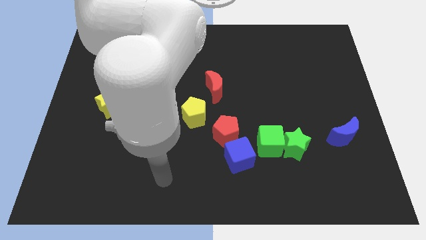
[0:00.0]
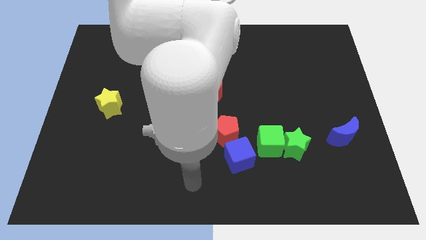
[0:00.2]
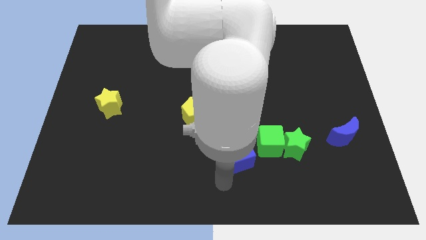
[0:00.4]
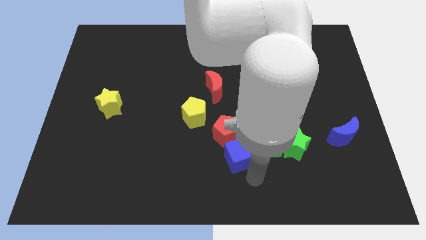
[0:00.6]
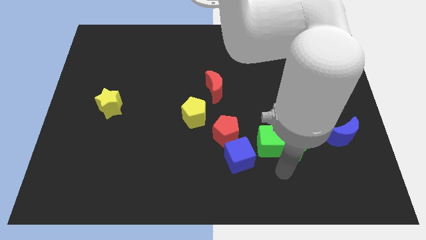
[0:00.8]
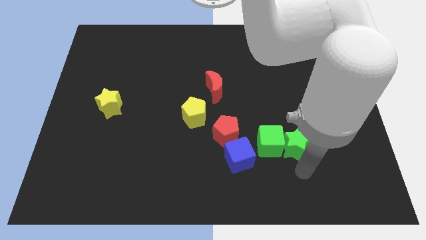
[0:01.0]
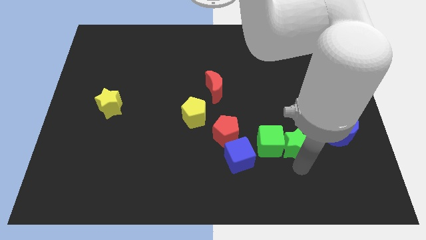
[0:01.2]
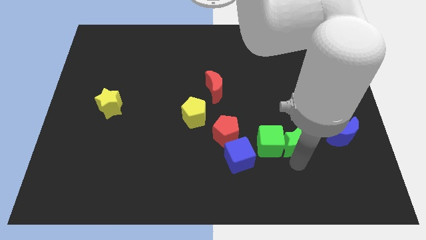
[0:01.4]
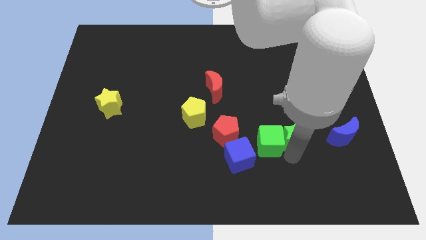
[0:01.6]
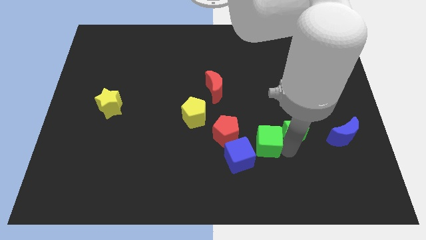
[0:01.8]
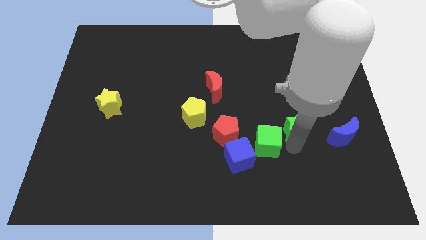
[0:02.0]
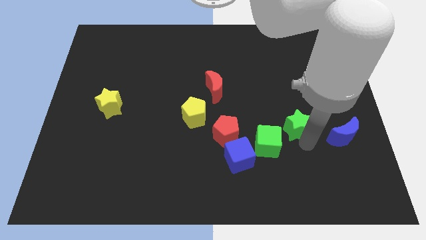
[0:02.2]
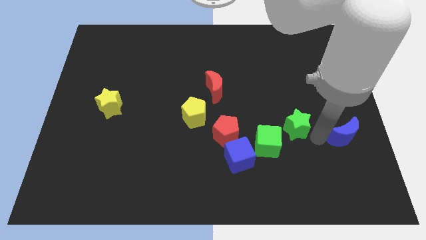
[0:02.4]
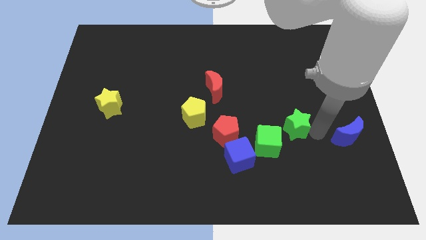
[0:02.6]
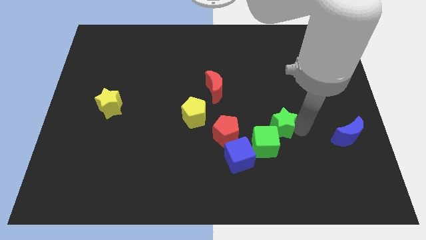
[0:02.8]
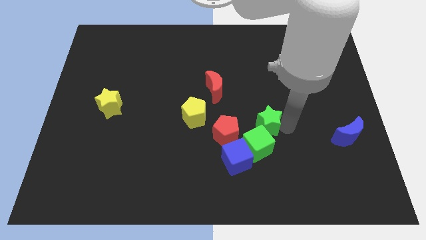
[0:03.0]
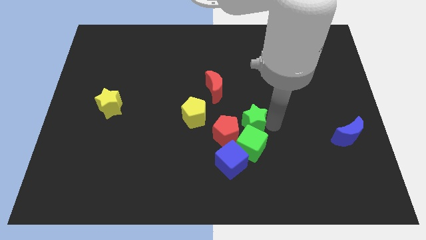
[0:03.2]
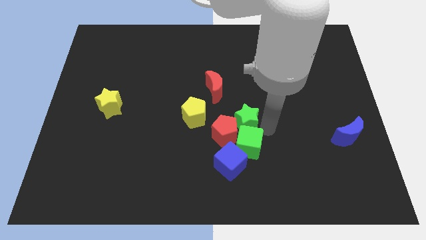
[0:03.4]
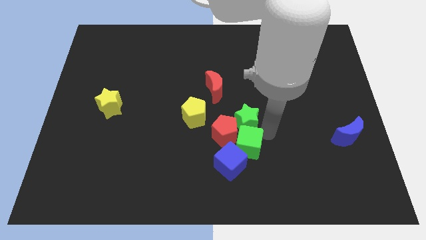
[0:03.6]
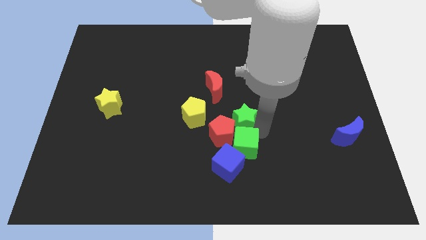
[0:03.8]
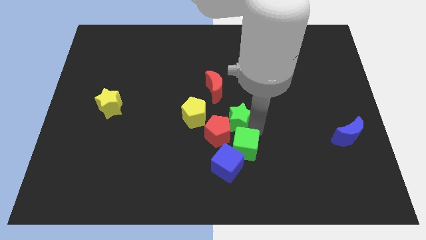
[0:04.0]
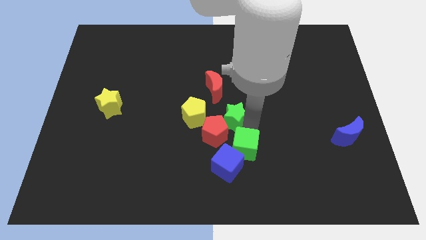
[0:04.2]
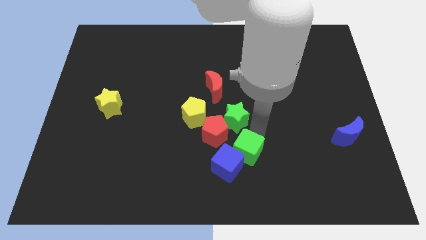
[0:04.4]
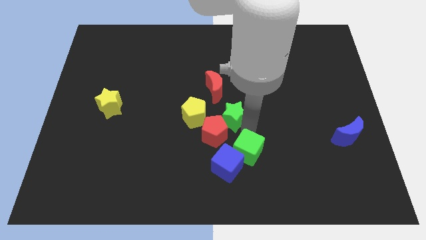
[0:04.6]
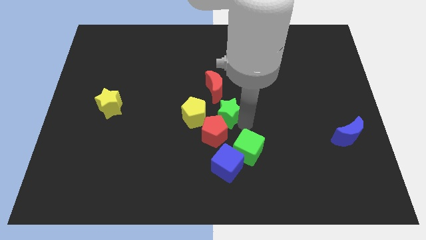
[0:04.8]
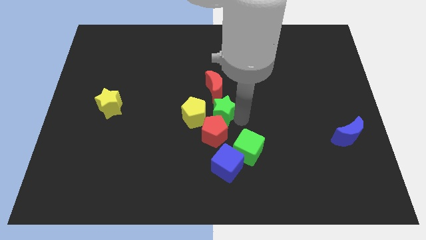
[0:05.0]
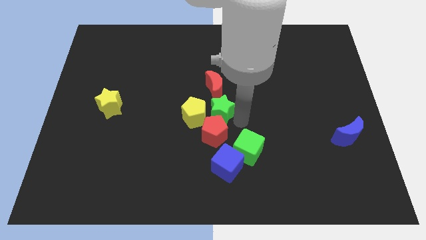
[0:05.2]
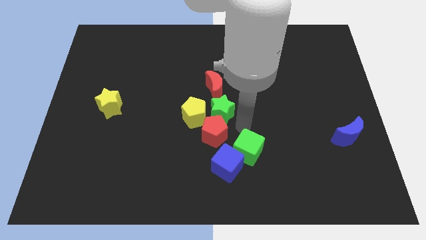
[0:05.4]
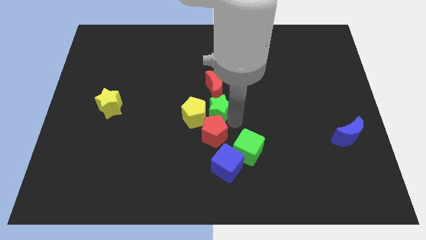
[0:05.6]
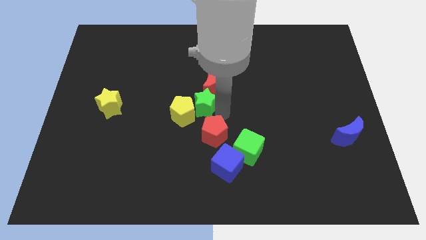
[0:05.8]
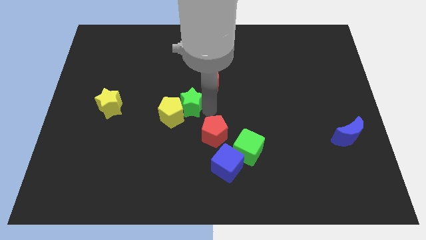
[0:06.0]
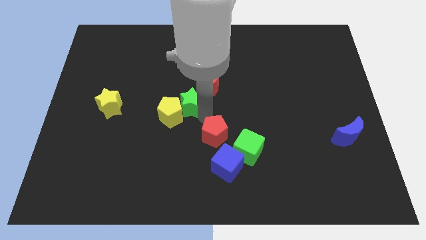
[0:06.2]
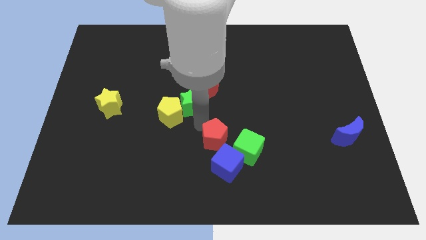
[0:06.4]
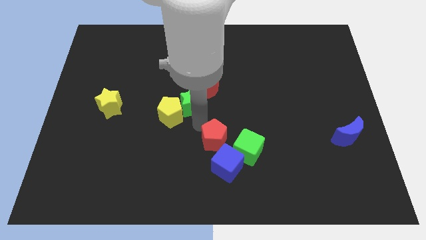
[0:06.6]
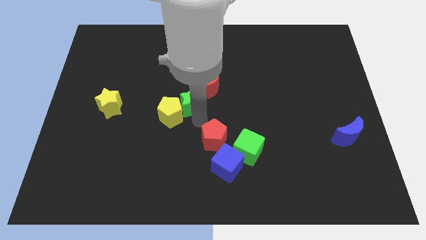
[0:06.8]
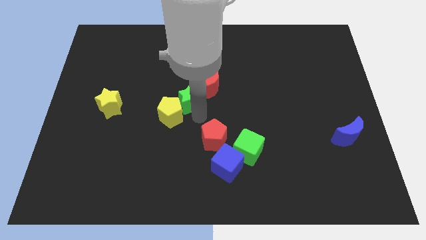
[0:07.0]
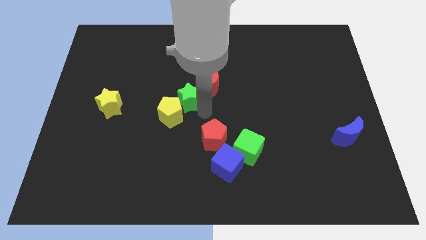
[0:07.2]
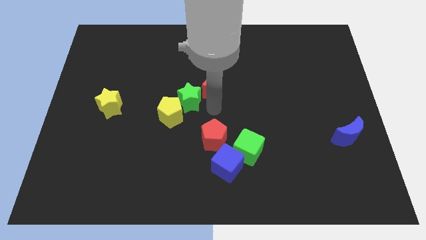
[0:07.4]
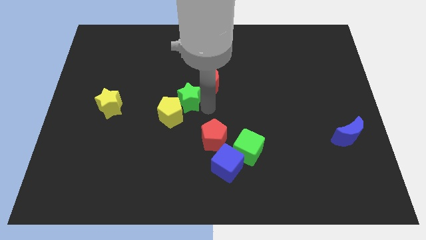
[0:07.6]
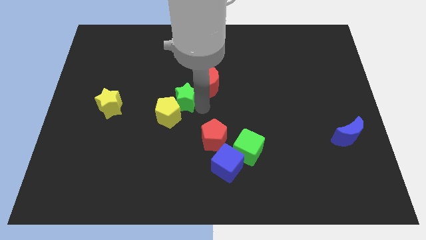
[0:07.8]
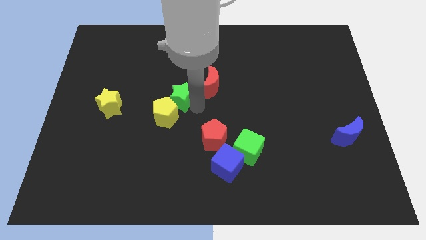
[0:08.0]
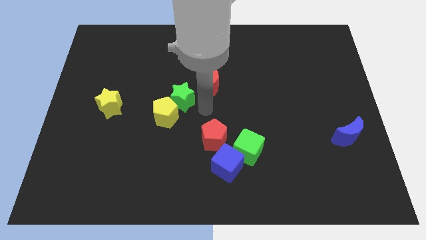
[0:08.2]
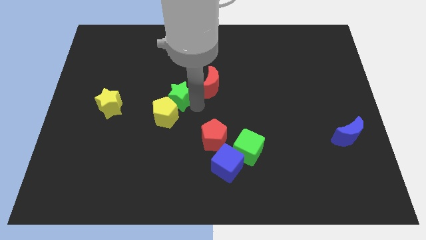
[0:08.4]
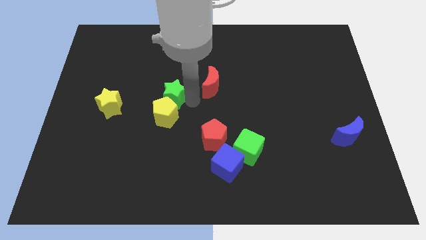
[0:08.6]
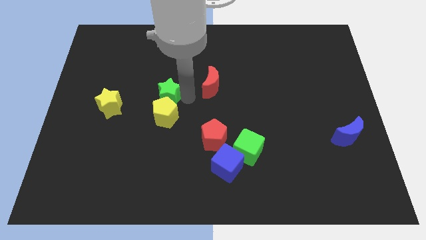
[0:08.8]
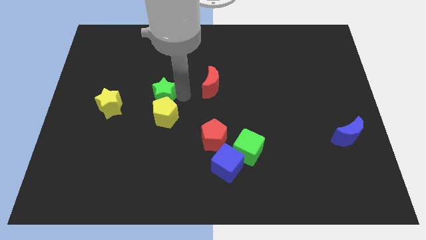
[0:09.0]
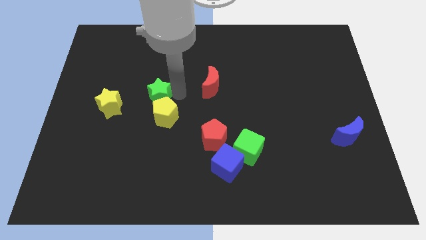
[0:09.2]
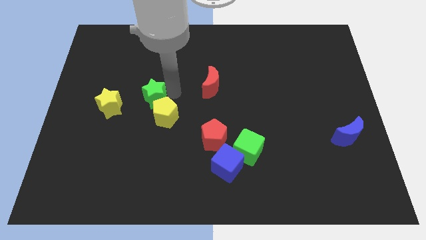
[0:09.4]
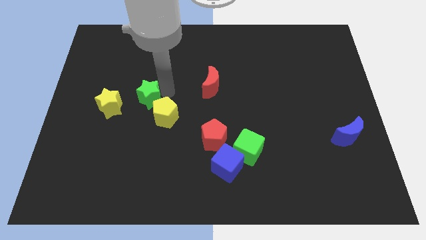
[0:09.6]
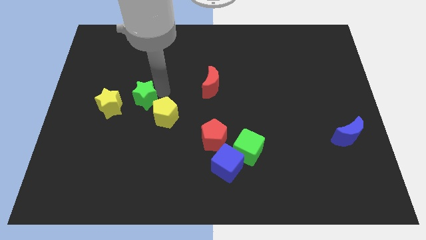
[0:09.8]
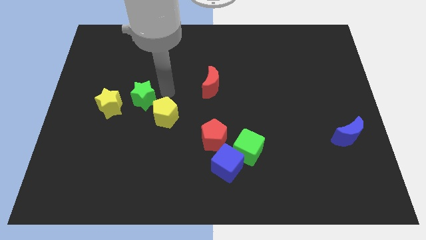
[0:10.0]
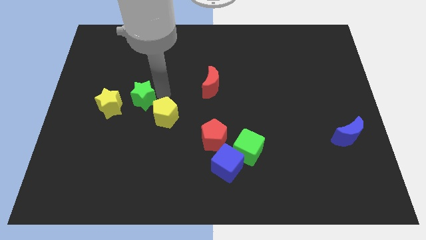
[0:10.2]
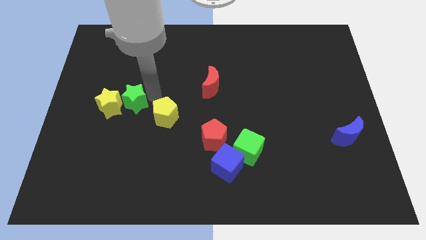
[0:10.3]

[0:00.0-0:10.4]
put the green star towards the yellow star

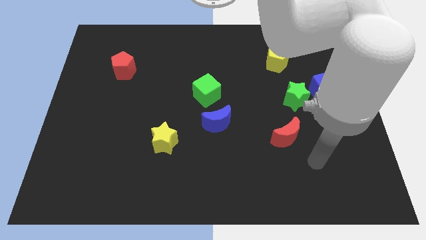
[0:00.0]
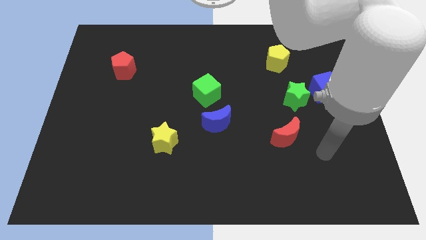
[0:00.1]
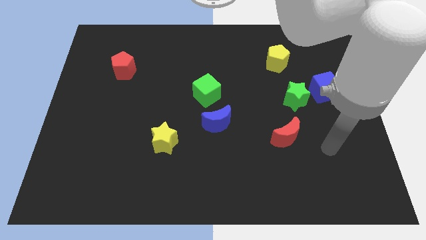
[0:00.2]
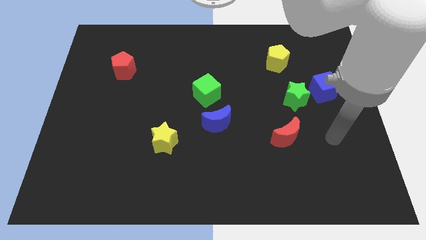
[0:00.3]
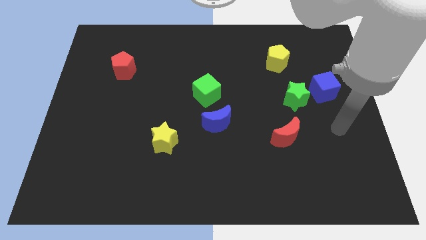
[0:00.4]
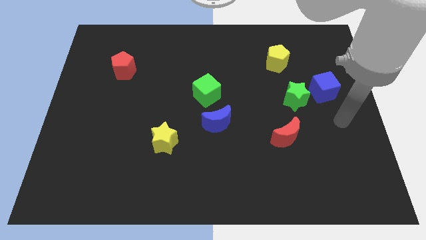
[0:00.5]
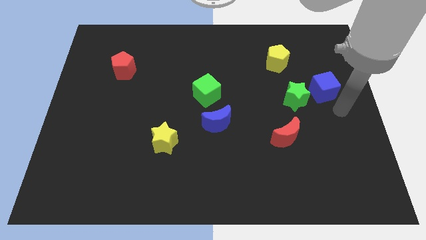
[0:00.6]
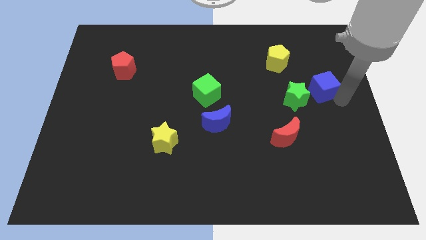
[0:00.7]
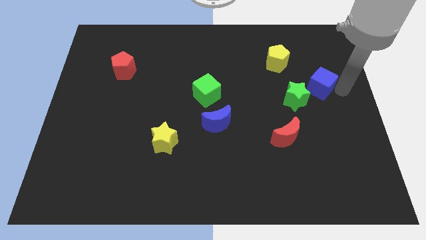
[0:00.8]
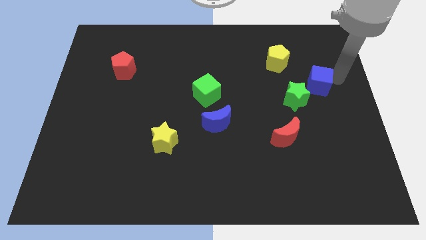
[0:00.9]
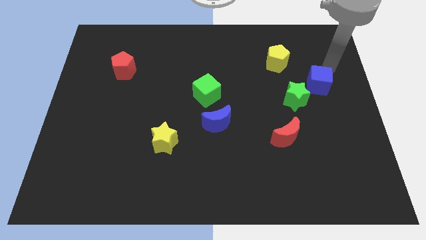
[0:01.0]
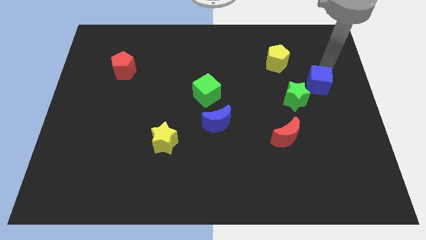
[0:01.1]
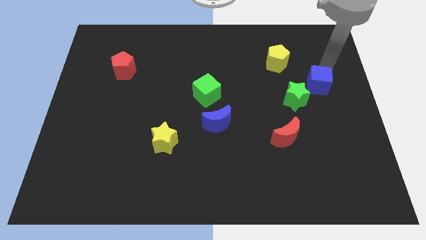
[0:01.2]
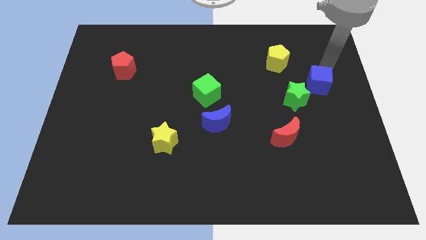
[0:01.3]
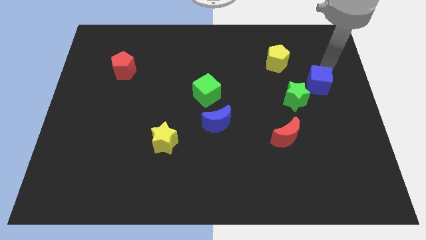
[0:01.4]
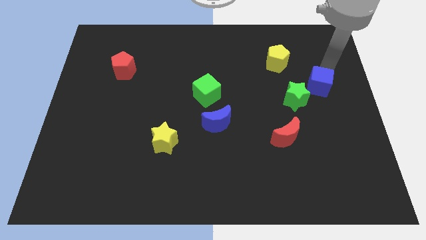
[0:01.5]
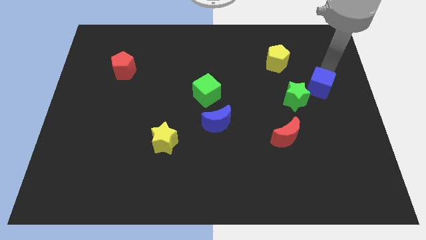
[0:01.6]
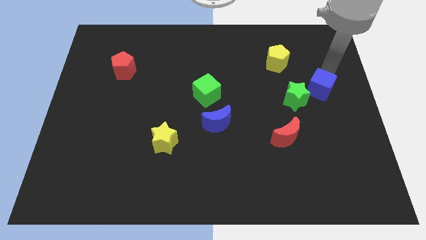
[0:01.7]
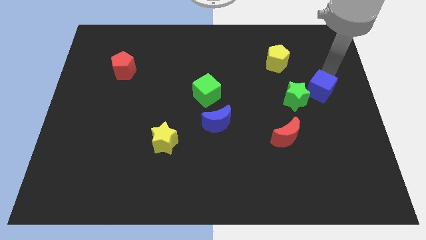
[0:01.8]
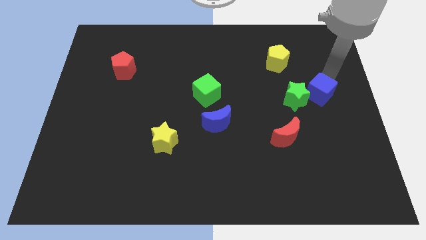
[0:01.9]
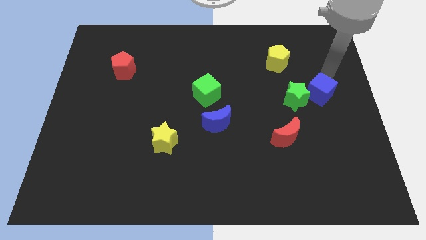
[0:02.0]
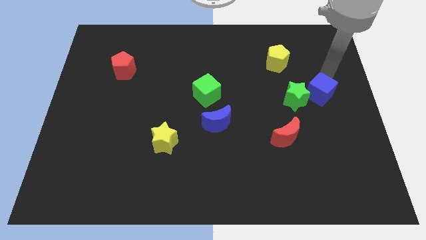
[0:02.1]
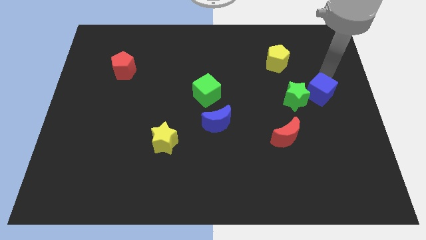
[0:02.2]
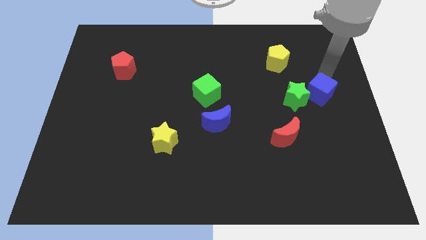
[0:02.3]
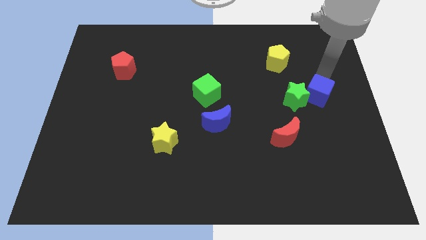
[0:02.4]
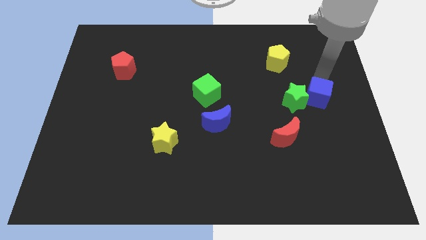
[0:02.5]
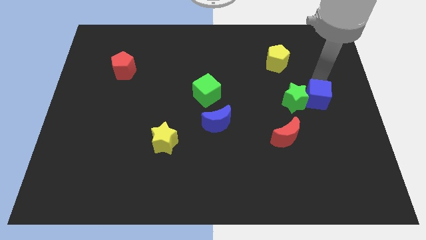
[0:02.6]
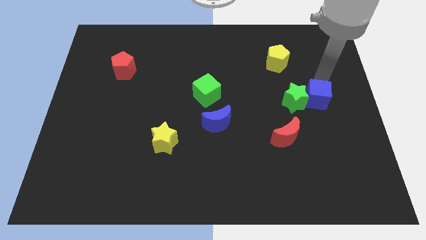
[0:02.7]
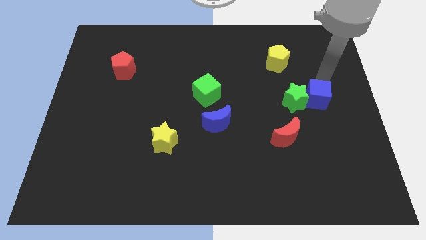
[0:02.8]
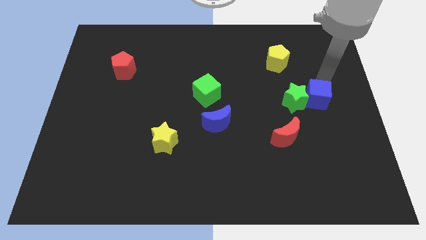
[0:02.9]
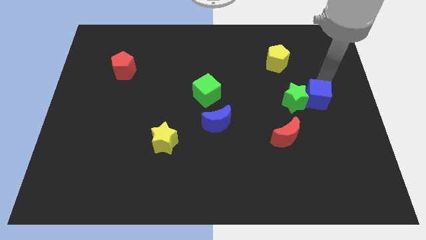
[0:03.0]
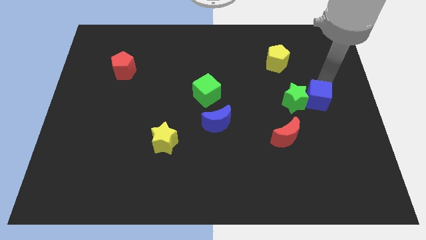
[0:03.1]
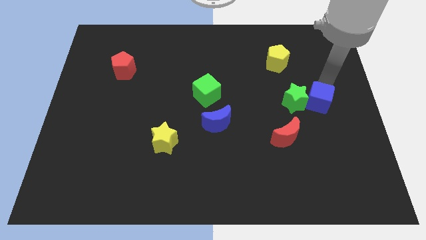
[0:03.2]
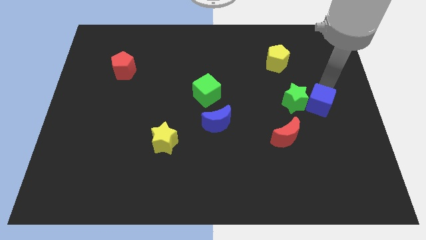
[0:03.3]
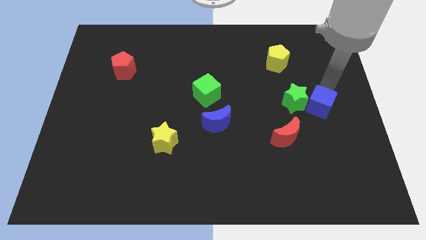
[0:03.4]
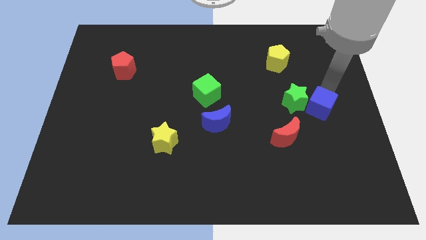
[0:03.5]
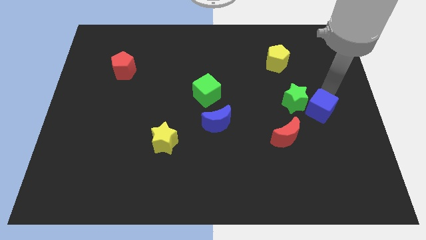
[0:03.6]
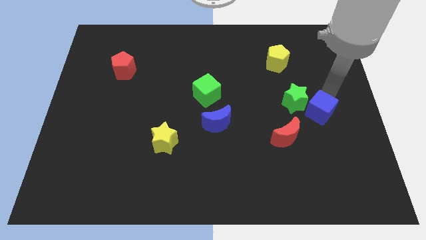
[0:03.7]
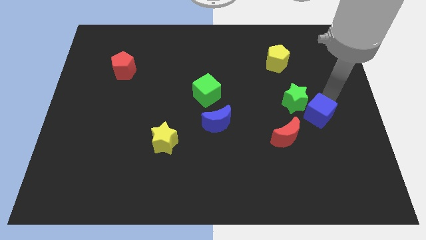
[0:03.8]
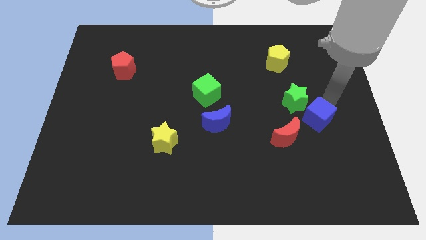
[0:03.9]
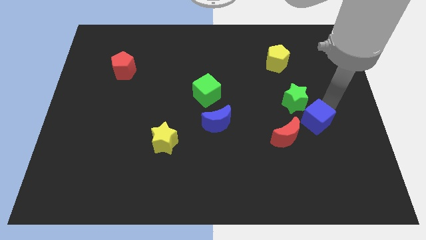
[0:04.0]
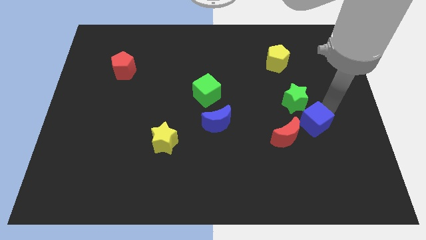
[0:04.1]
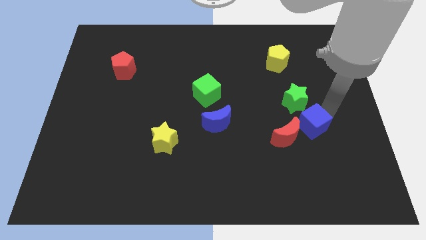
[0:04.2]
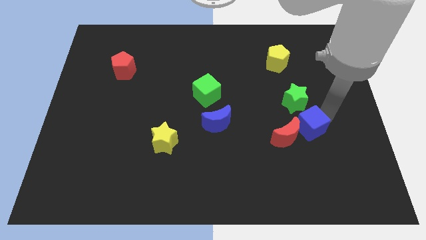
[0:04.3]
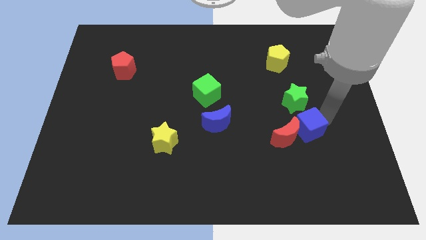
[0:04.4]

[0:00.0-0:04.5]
put the blue cube to the red moon
